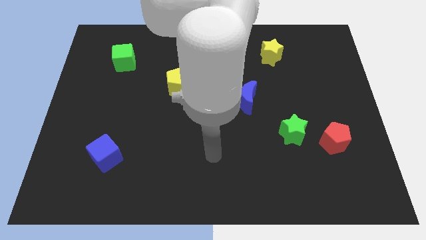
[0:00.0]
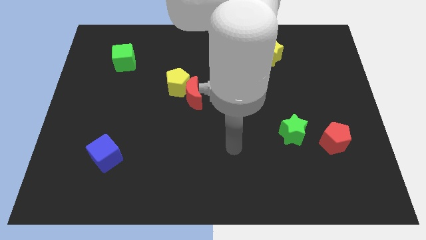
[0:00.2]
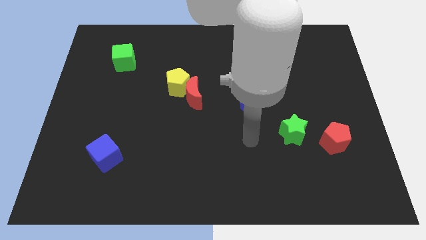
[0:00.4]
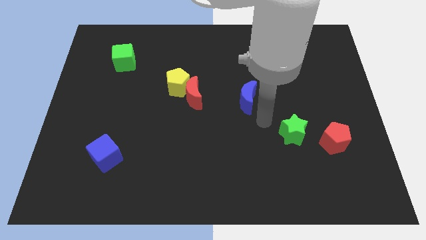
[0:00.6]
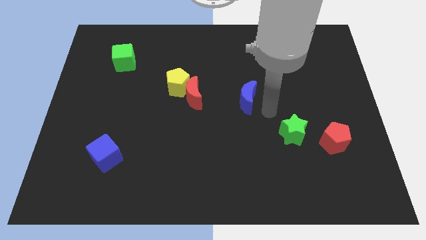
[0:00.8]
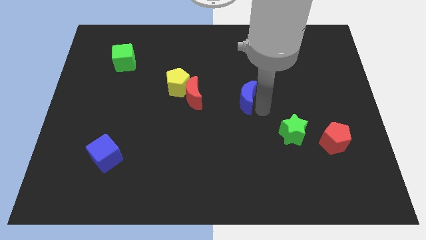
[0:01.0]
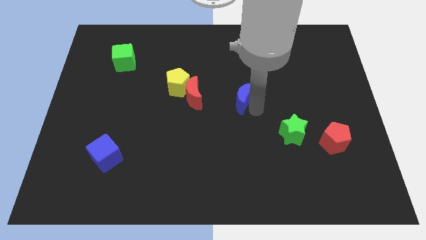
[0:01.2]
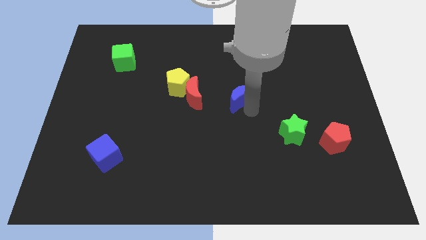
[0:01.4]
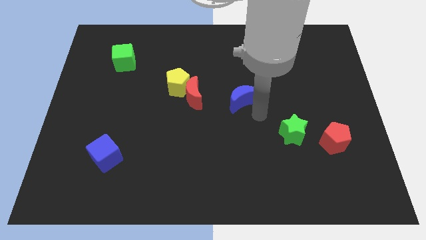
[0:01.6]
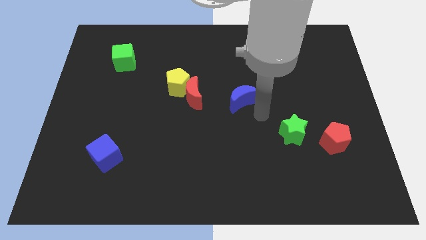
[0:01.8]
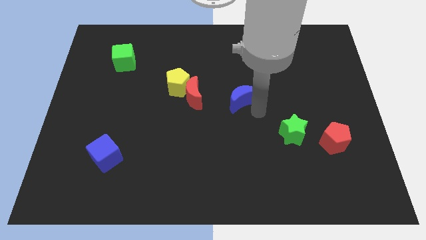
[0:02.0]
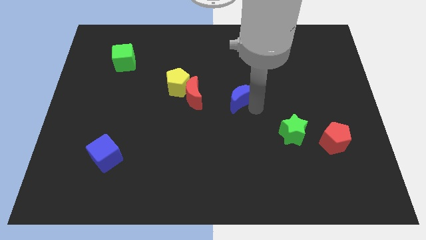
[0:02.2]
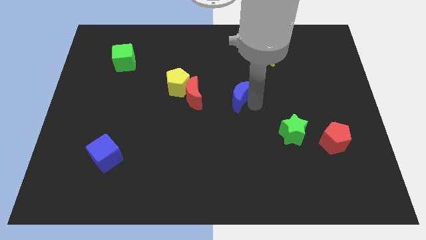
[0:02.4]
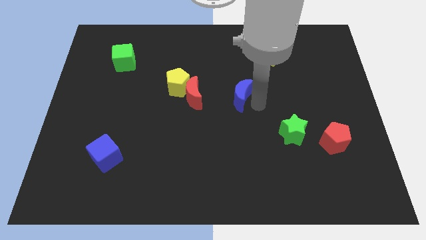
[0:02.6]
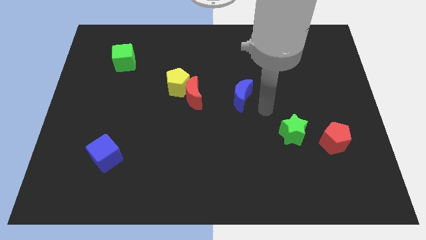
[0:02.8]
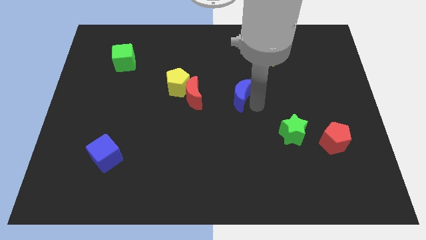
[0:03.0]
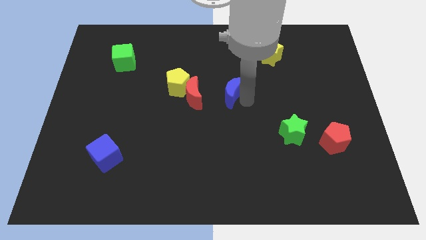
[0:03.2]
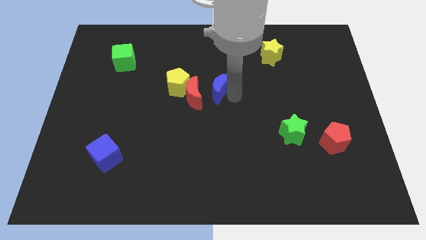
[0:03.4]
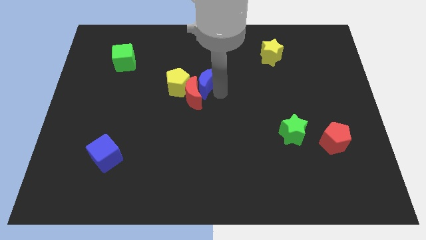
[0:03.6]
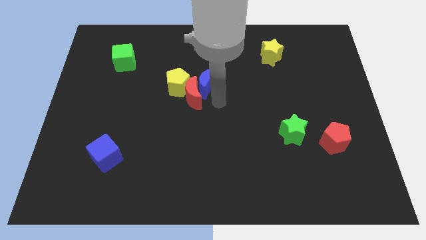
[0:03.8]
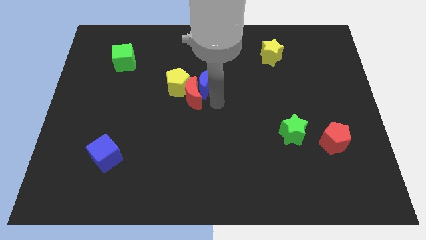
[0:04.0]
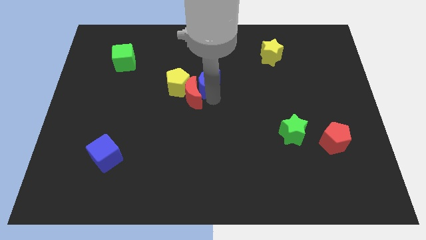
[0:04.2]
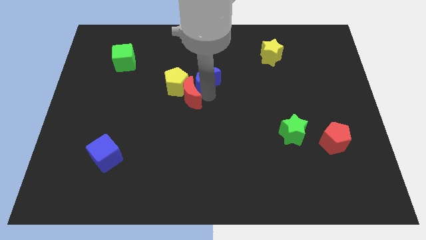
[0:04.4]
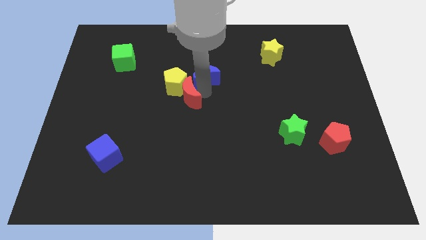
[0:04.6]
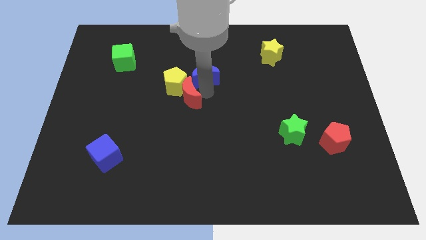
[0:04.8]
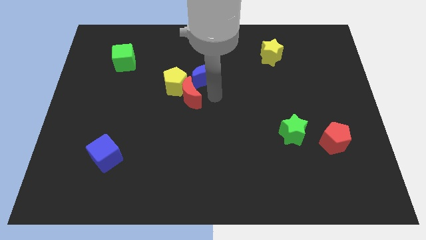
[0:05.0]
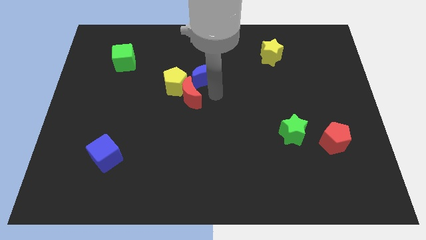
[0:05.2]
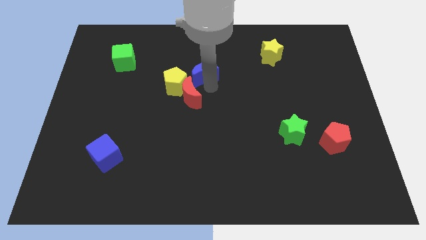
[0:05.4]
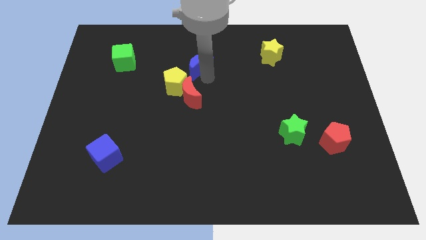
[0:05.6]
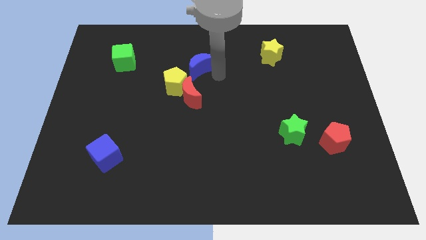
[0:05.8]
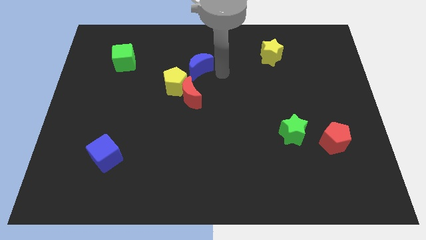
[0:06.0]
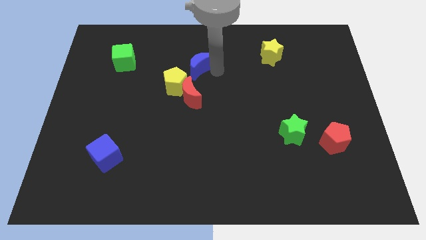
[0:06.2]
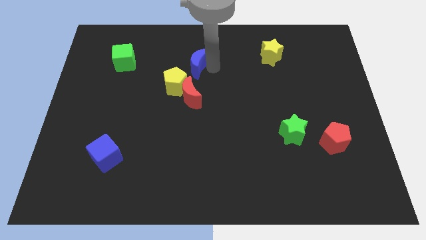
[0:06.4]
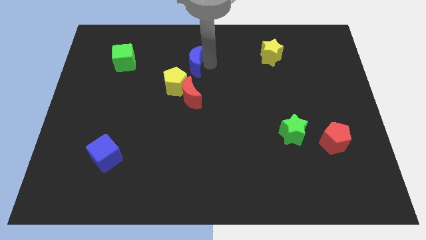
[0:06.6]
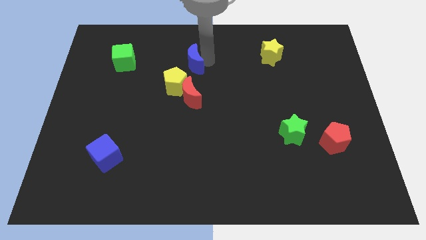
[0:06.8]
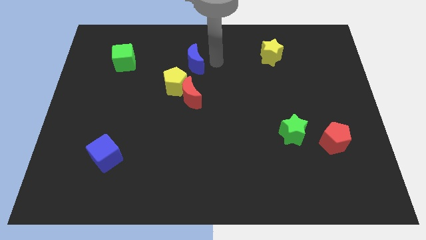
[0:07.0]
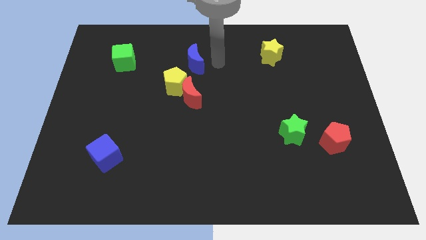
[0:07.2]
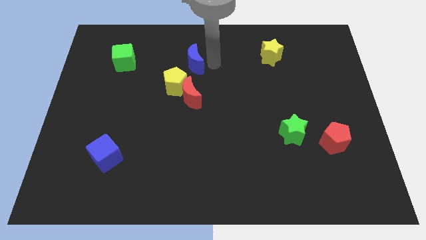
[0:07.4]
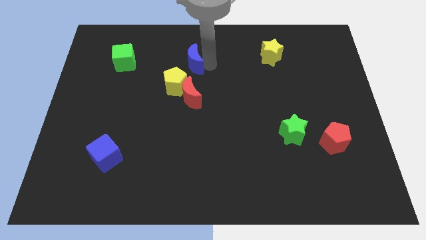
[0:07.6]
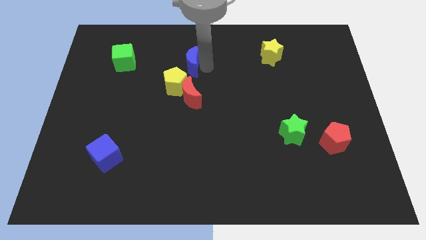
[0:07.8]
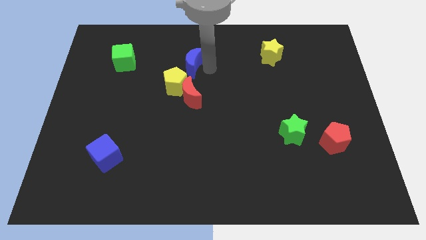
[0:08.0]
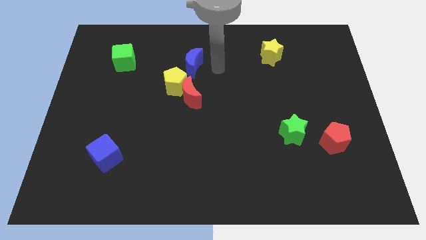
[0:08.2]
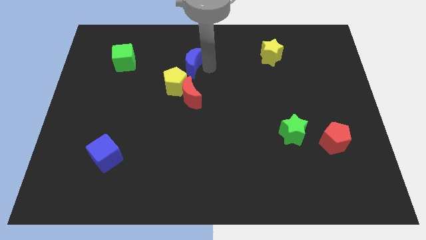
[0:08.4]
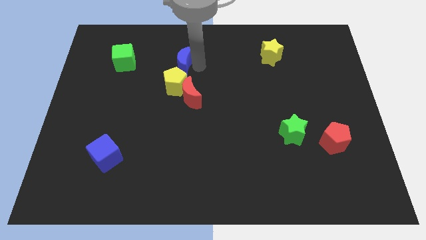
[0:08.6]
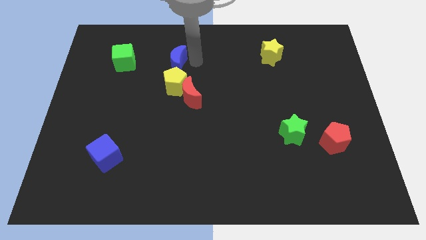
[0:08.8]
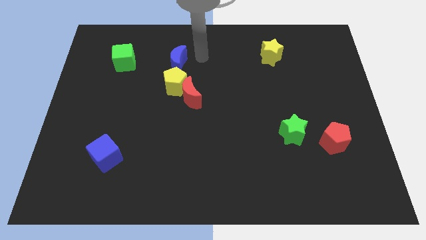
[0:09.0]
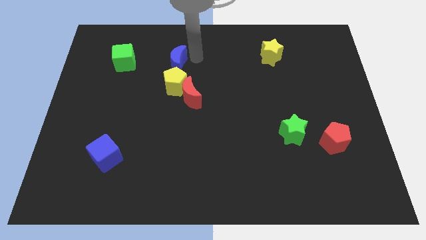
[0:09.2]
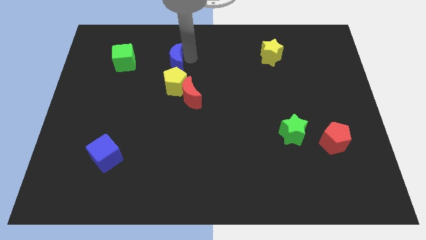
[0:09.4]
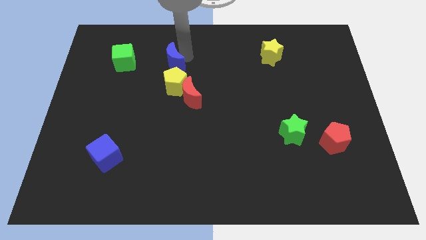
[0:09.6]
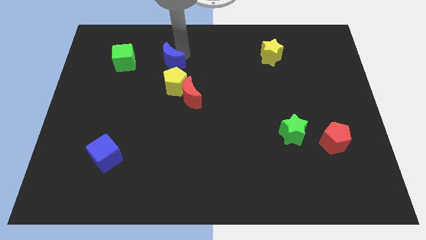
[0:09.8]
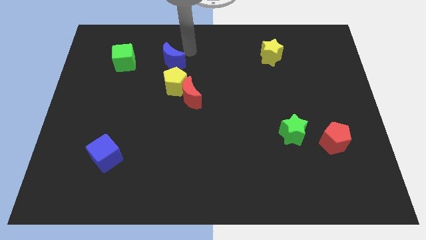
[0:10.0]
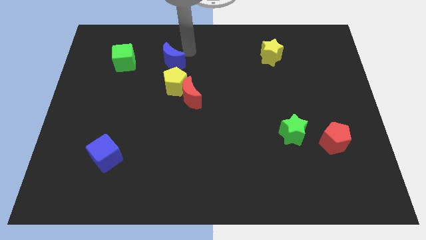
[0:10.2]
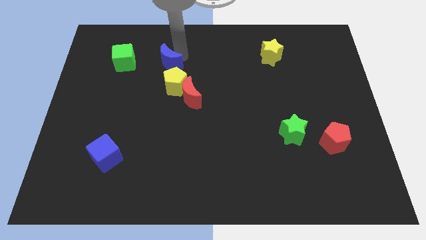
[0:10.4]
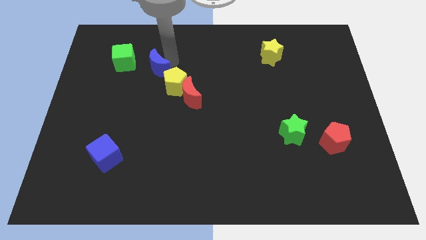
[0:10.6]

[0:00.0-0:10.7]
slide the blue moon to the bottom right of the green cube
